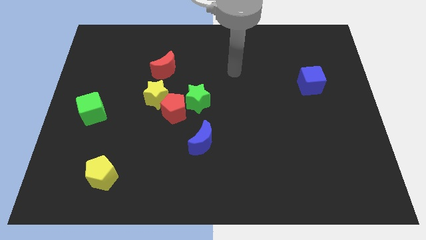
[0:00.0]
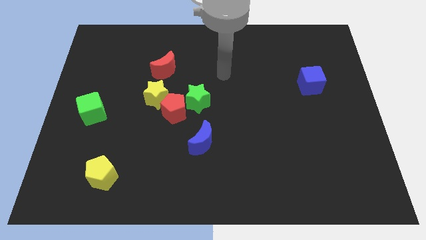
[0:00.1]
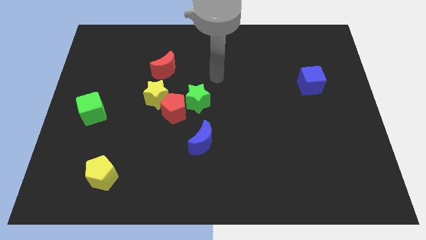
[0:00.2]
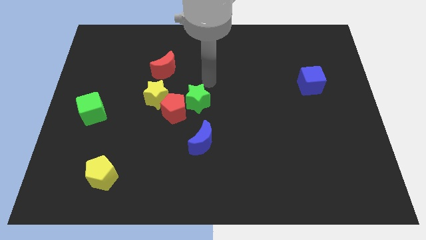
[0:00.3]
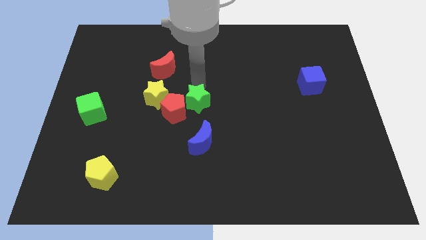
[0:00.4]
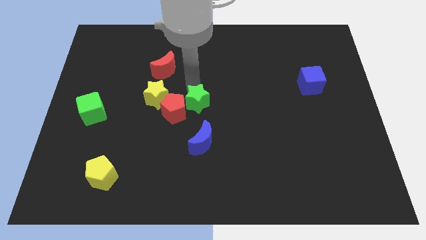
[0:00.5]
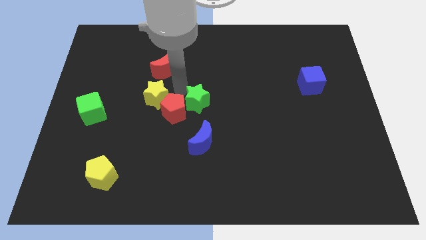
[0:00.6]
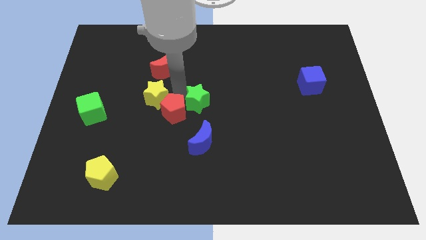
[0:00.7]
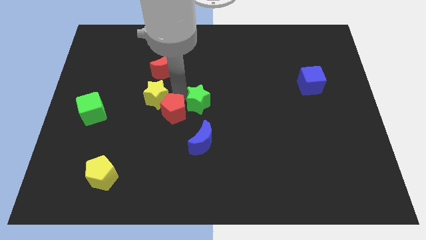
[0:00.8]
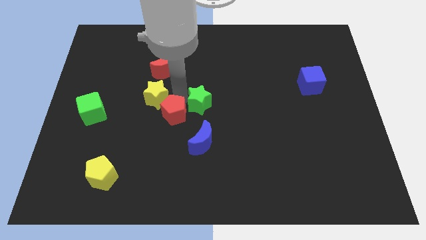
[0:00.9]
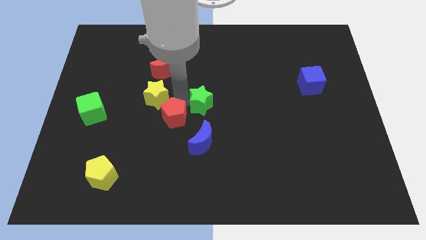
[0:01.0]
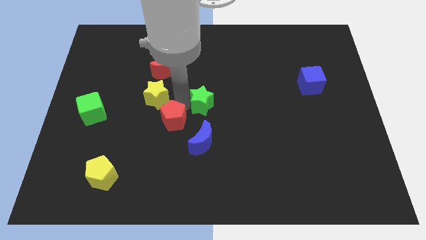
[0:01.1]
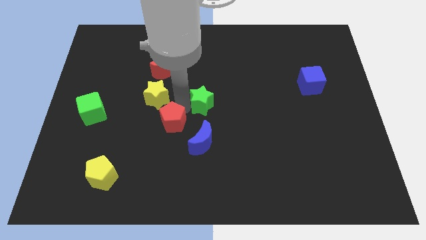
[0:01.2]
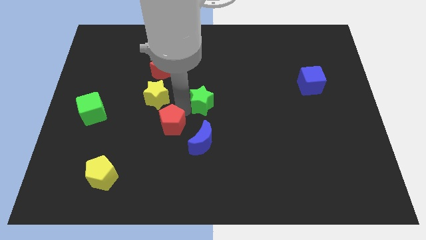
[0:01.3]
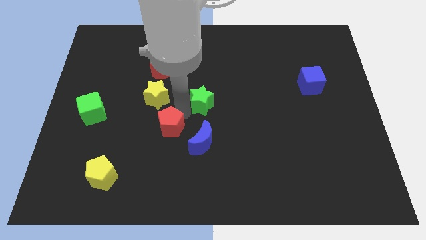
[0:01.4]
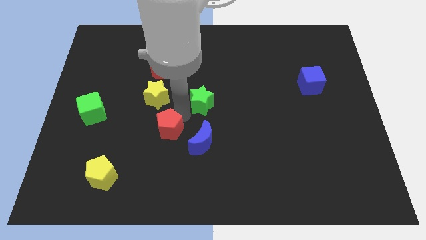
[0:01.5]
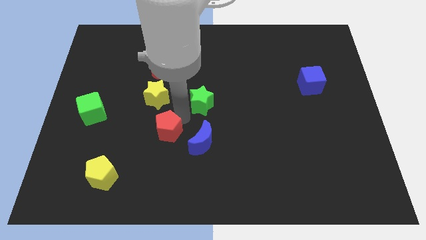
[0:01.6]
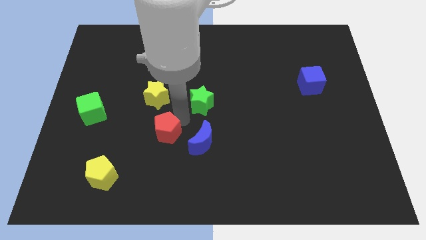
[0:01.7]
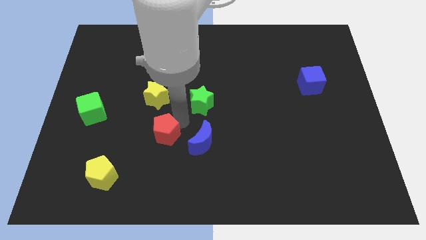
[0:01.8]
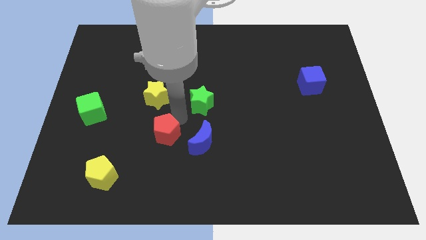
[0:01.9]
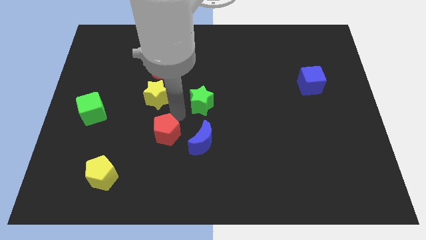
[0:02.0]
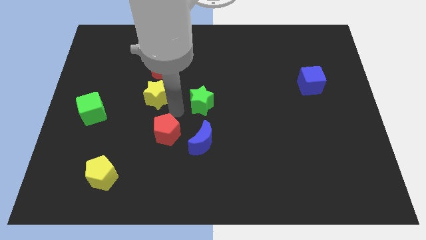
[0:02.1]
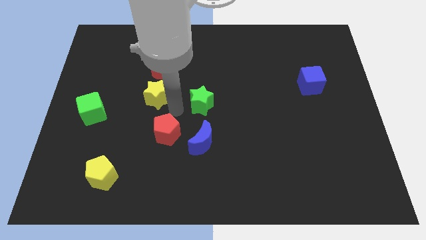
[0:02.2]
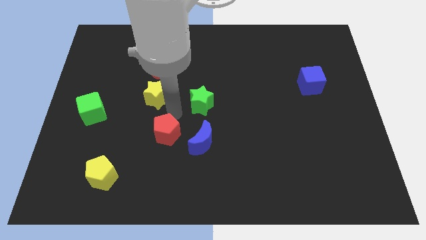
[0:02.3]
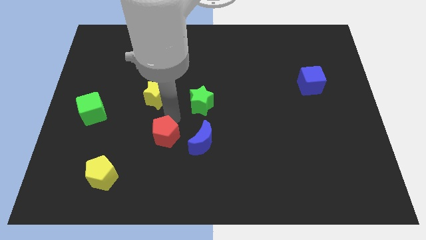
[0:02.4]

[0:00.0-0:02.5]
pull the red pentagon apart from the yellow star and green star

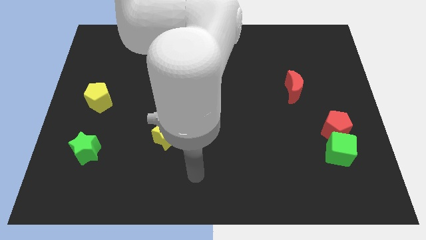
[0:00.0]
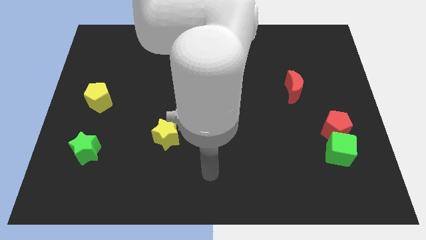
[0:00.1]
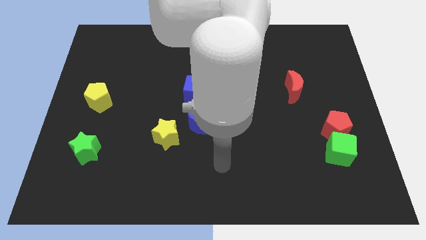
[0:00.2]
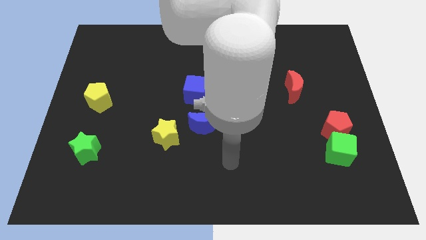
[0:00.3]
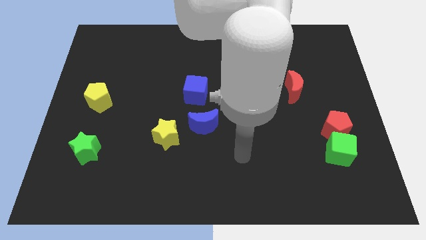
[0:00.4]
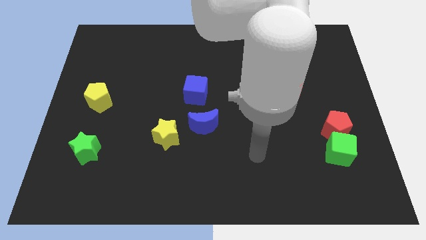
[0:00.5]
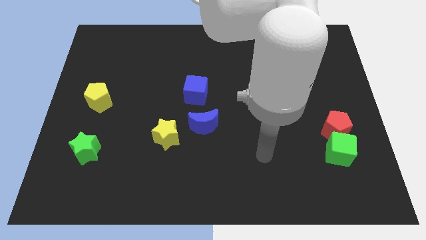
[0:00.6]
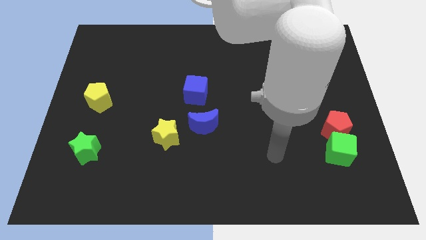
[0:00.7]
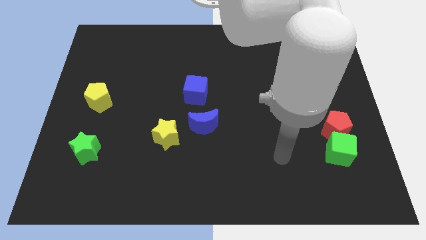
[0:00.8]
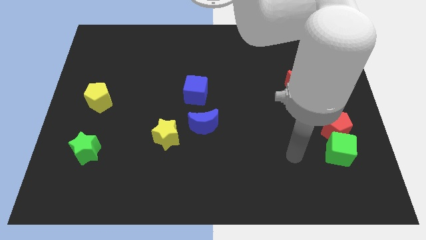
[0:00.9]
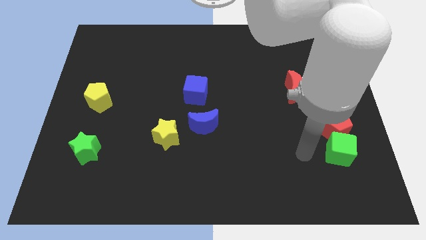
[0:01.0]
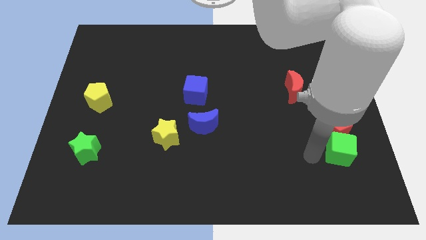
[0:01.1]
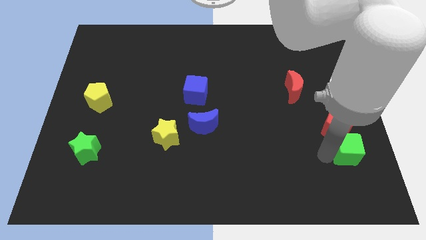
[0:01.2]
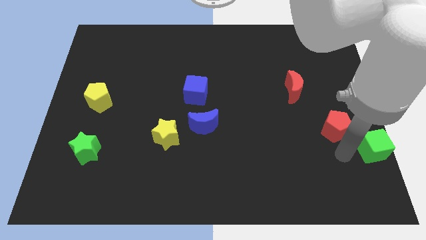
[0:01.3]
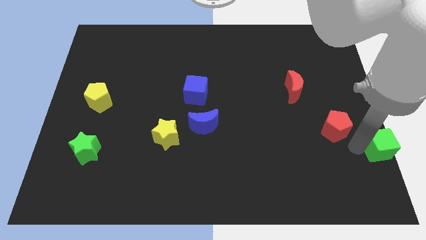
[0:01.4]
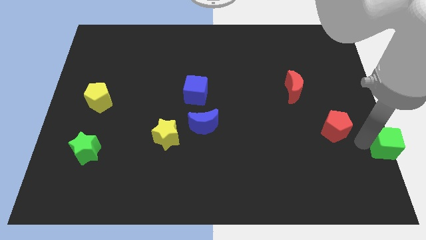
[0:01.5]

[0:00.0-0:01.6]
move the red pentagon away from the green cube

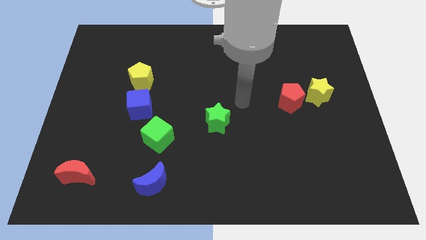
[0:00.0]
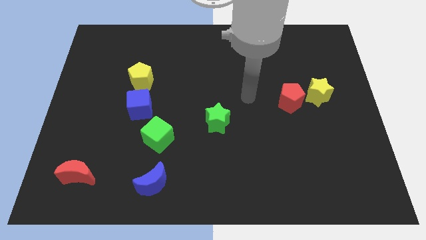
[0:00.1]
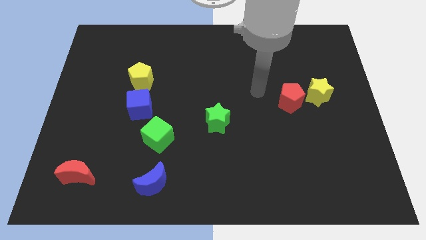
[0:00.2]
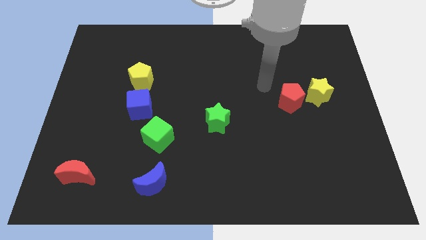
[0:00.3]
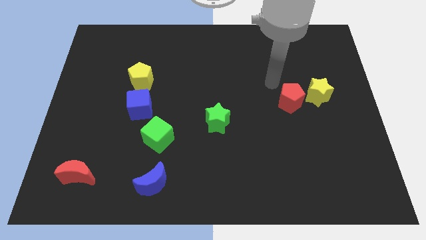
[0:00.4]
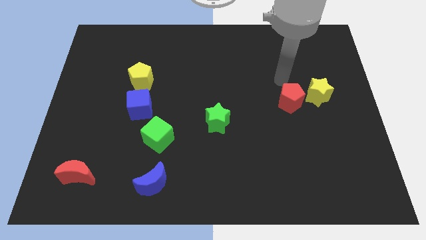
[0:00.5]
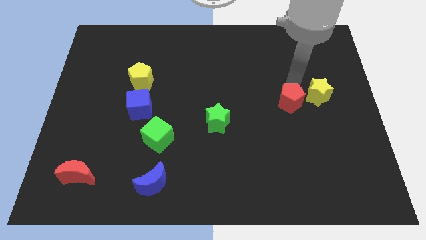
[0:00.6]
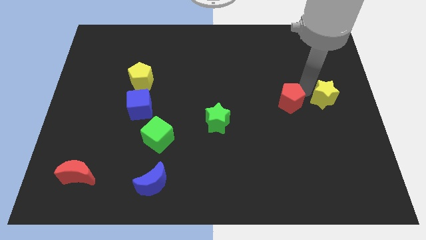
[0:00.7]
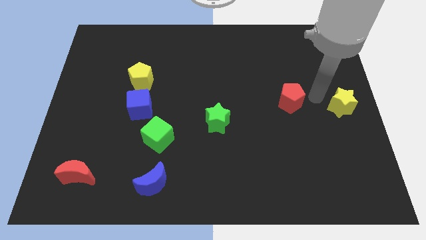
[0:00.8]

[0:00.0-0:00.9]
pull the red pentagon apart from the yellow star

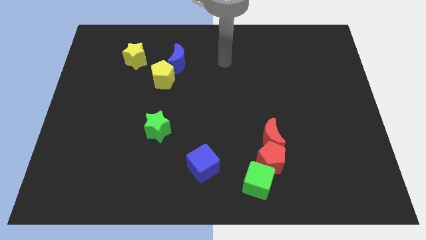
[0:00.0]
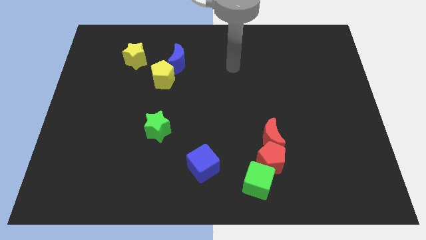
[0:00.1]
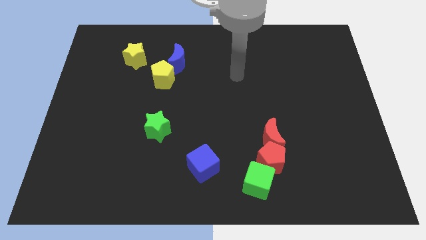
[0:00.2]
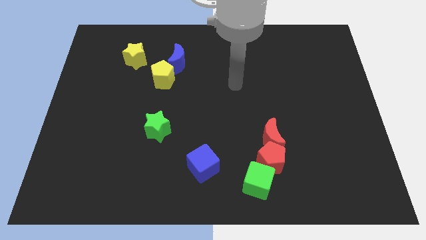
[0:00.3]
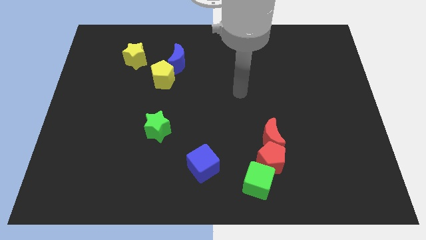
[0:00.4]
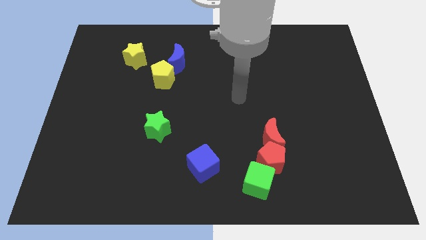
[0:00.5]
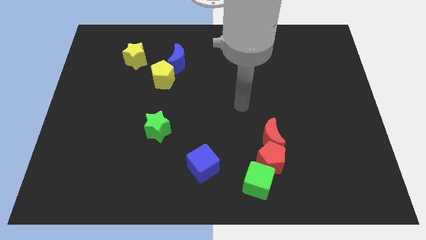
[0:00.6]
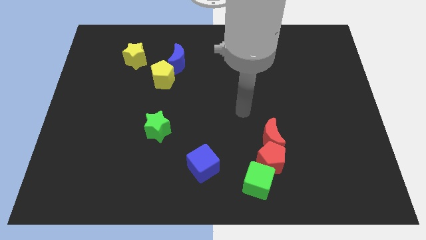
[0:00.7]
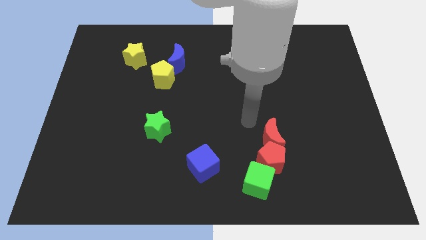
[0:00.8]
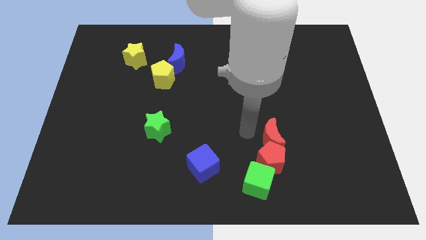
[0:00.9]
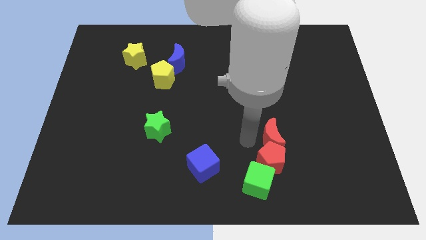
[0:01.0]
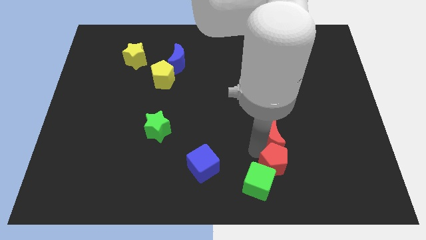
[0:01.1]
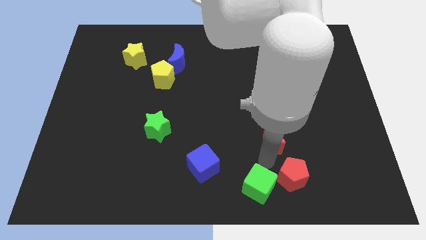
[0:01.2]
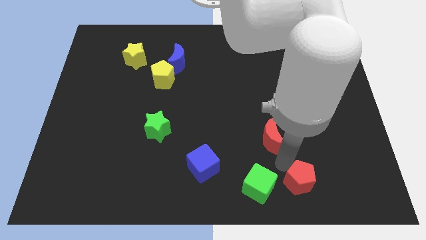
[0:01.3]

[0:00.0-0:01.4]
separate the red moon from the red pentagon

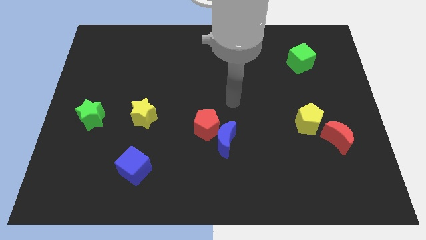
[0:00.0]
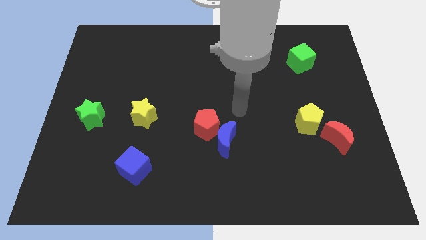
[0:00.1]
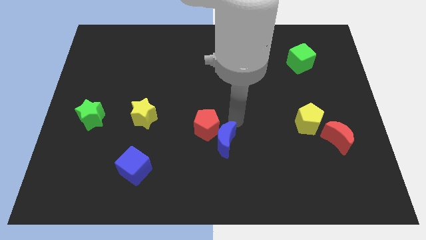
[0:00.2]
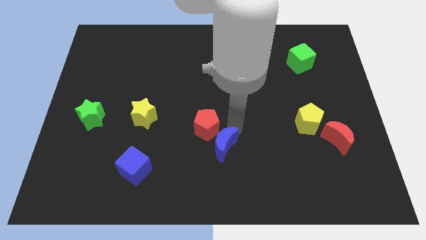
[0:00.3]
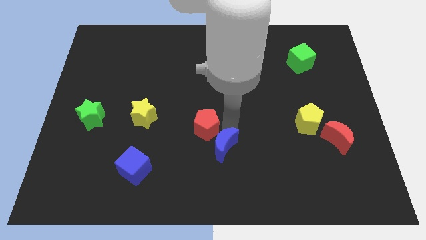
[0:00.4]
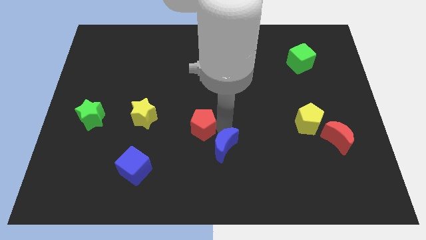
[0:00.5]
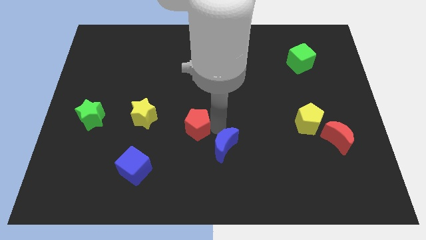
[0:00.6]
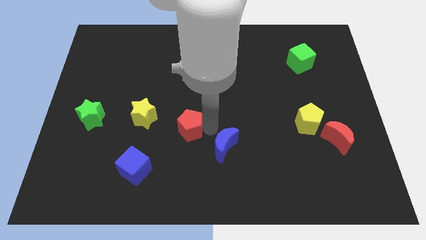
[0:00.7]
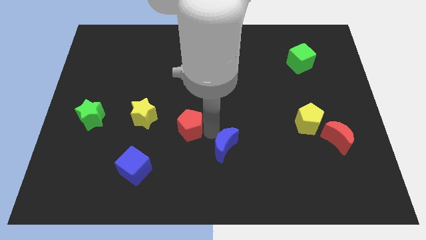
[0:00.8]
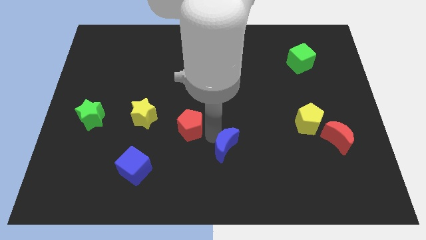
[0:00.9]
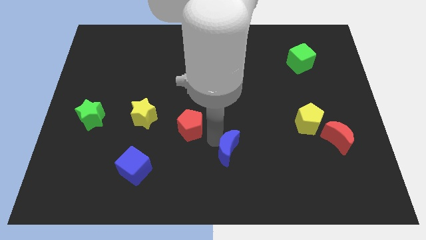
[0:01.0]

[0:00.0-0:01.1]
pull the red pentagon apart from the blue moon

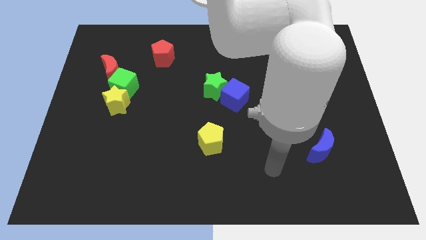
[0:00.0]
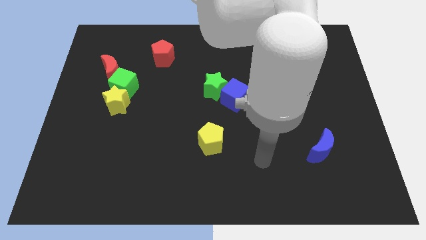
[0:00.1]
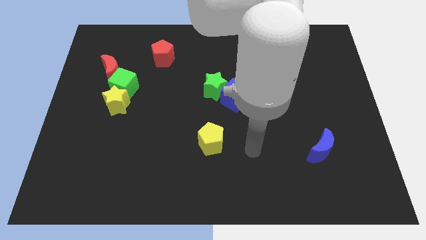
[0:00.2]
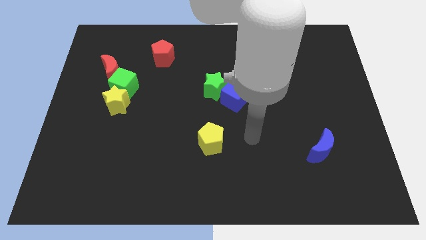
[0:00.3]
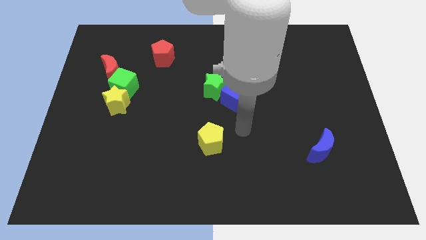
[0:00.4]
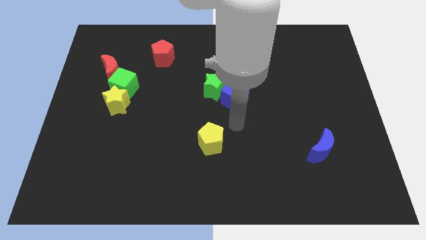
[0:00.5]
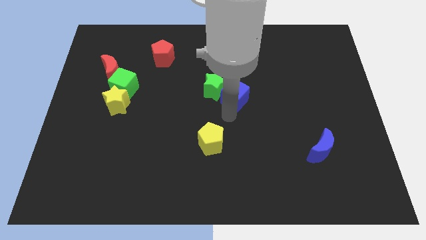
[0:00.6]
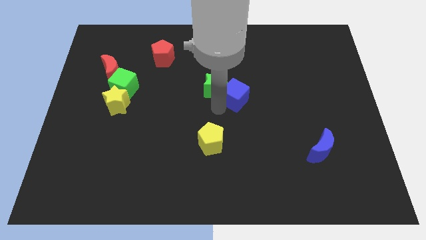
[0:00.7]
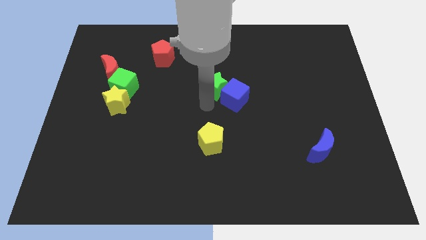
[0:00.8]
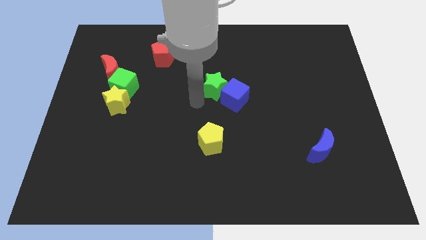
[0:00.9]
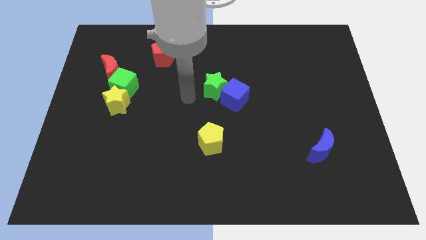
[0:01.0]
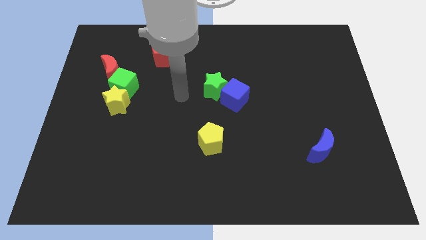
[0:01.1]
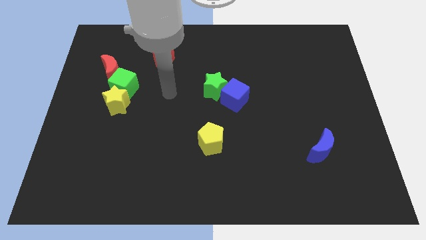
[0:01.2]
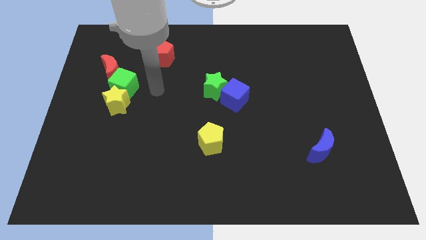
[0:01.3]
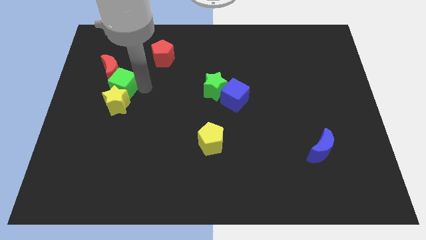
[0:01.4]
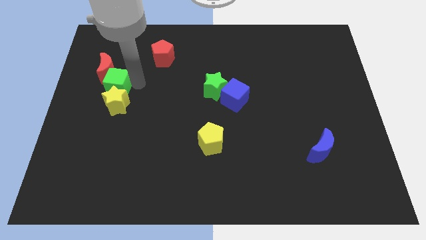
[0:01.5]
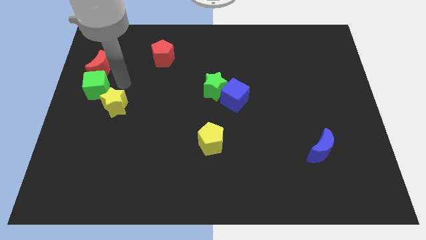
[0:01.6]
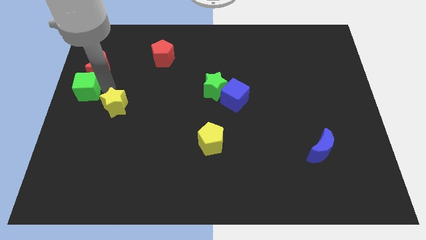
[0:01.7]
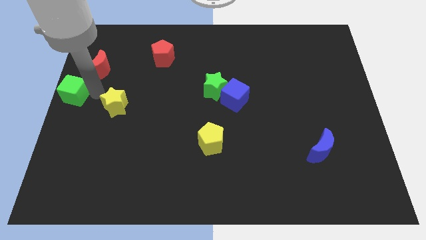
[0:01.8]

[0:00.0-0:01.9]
separate the yellow star from the green cube
